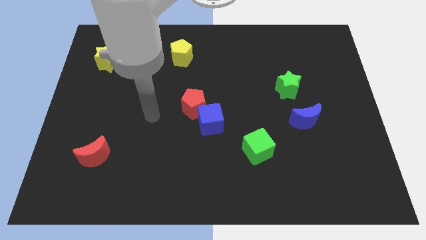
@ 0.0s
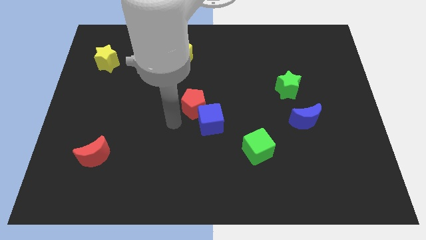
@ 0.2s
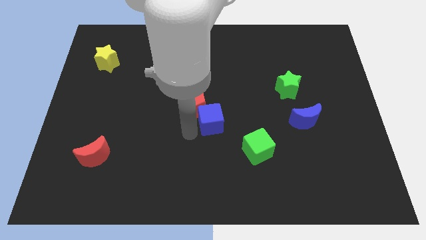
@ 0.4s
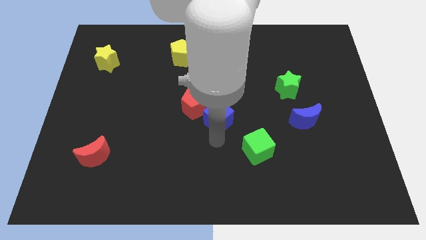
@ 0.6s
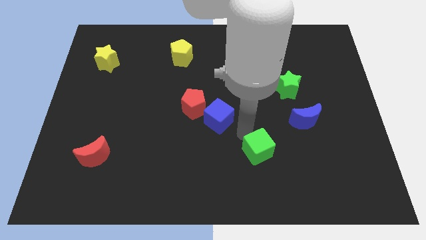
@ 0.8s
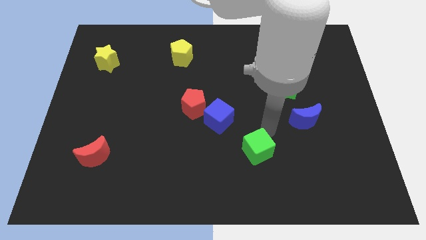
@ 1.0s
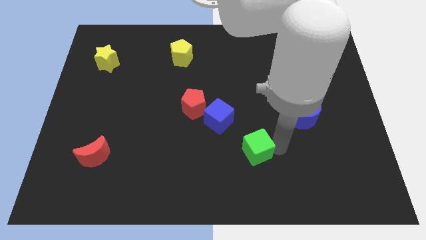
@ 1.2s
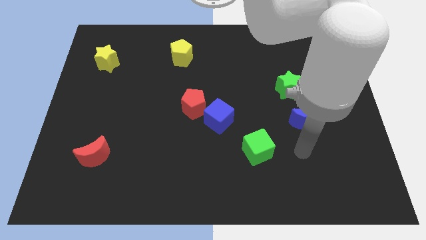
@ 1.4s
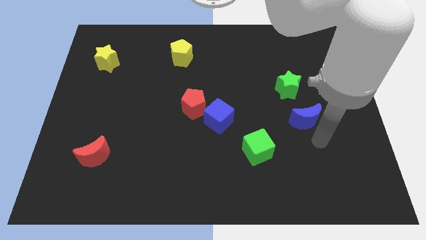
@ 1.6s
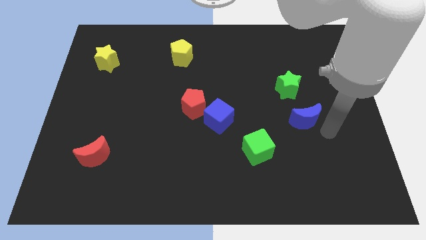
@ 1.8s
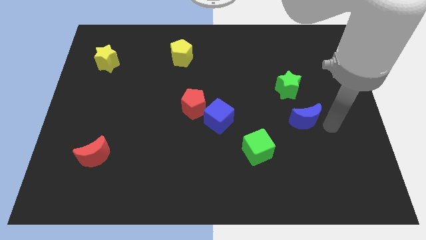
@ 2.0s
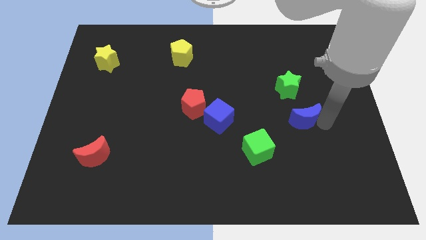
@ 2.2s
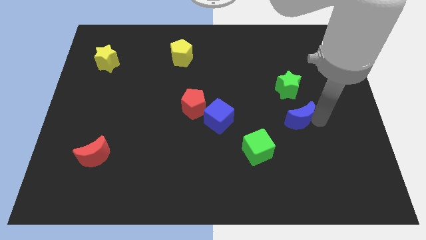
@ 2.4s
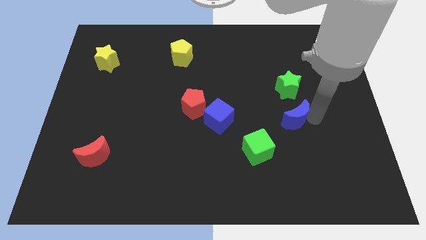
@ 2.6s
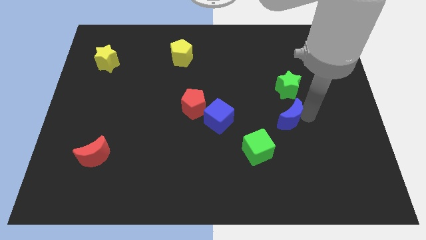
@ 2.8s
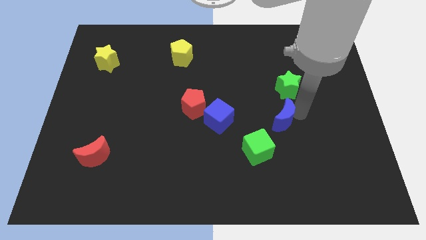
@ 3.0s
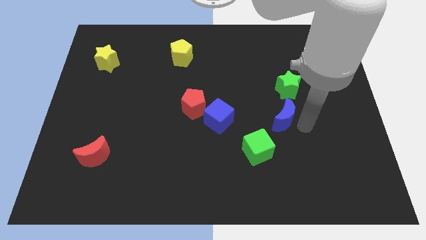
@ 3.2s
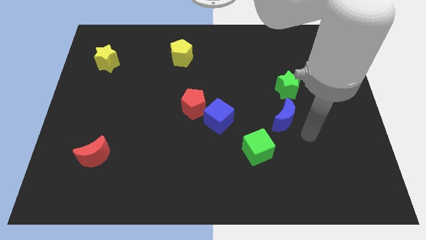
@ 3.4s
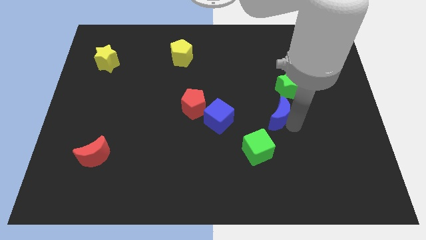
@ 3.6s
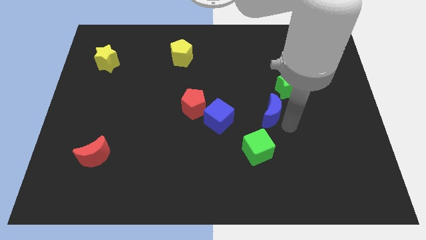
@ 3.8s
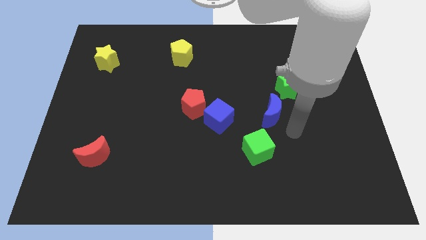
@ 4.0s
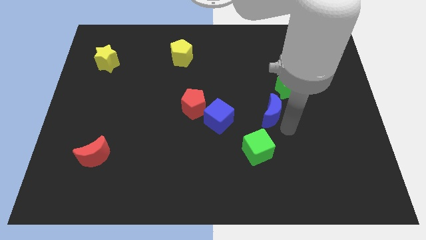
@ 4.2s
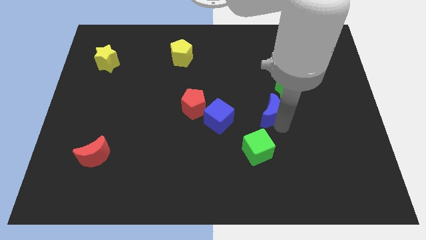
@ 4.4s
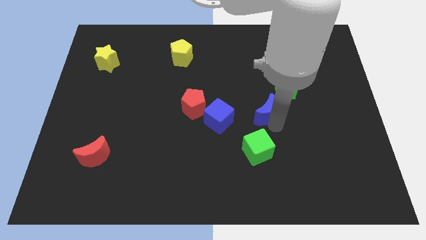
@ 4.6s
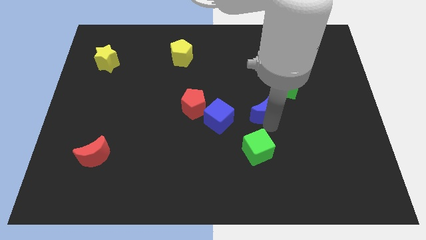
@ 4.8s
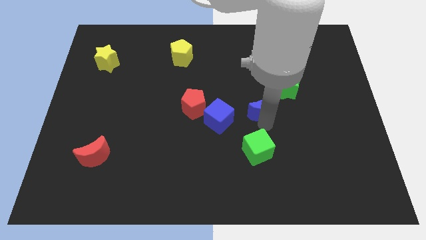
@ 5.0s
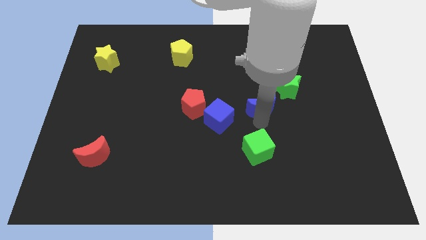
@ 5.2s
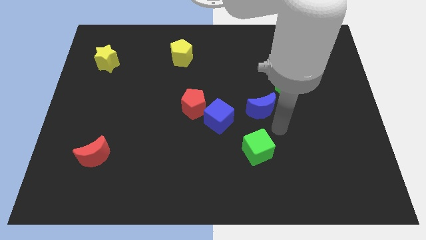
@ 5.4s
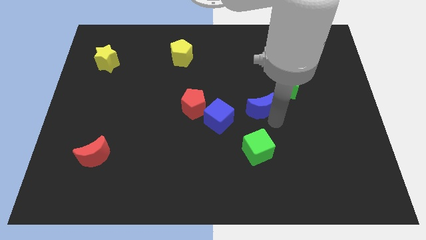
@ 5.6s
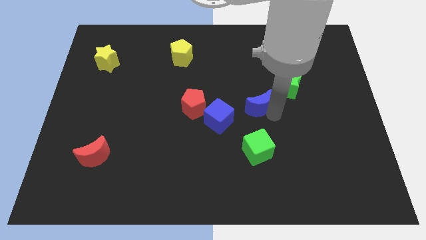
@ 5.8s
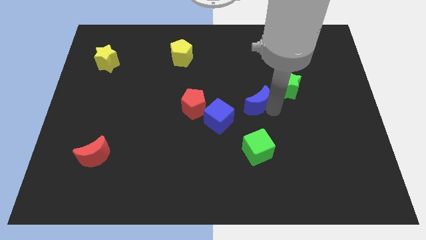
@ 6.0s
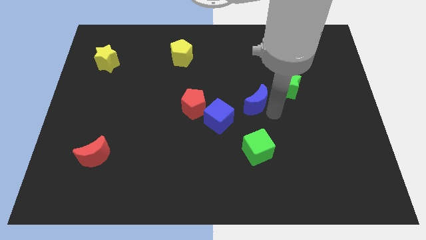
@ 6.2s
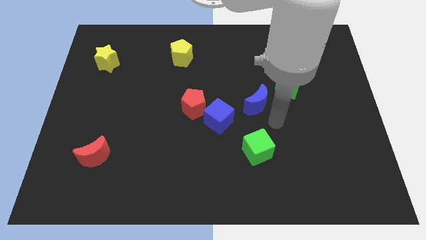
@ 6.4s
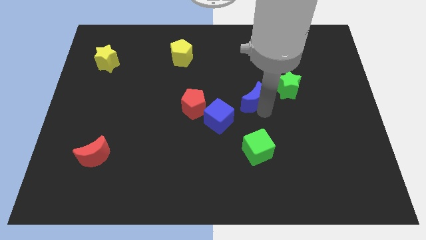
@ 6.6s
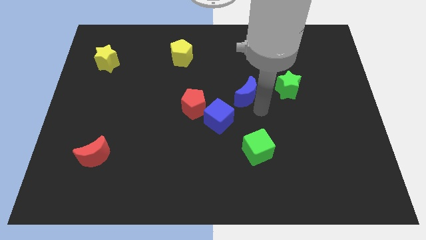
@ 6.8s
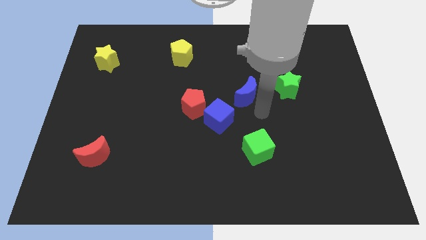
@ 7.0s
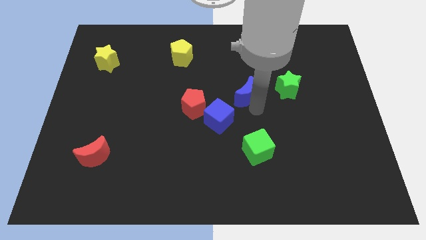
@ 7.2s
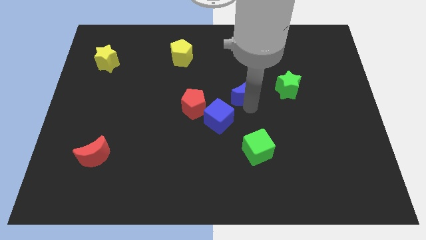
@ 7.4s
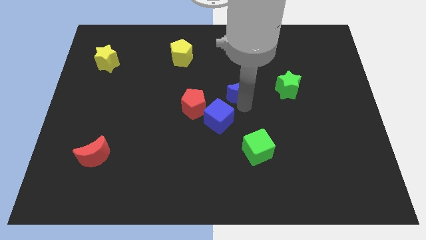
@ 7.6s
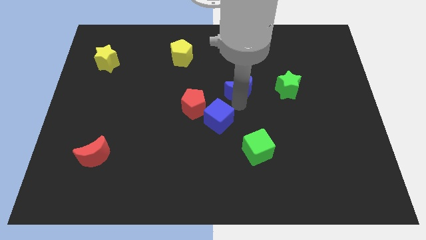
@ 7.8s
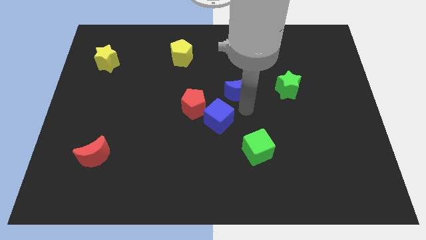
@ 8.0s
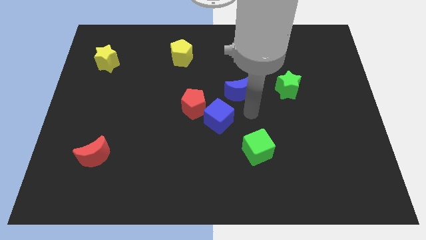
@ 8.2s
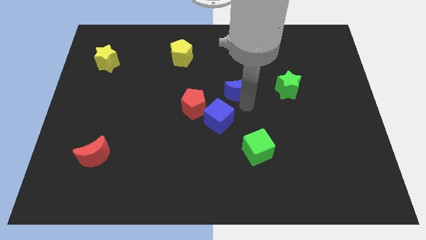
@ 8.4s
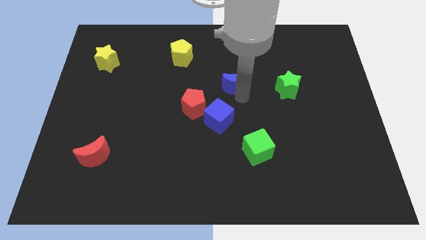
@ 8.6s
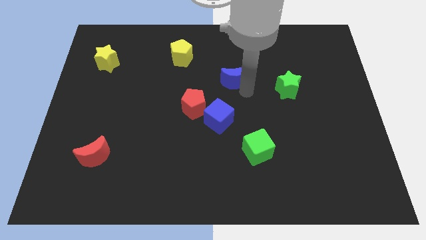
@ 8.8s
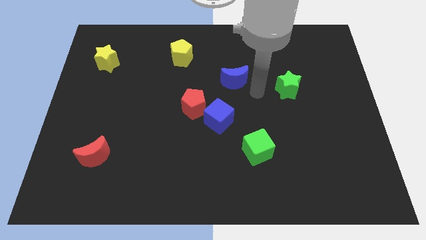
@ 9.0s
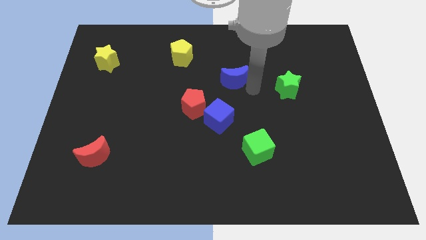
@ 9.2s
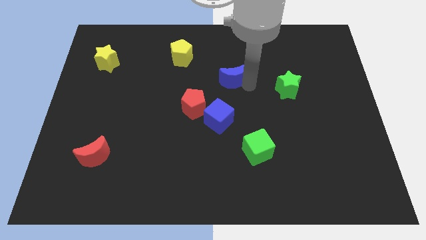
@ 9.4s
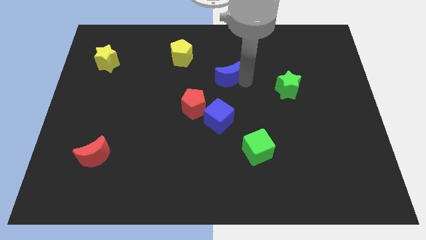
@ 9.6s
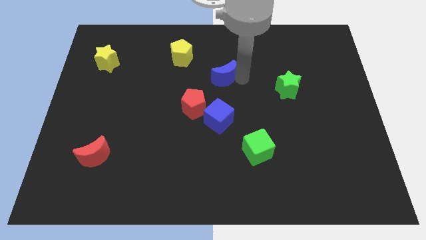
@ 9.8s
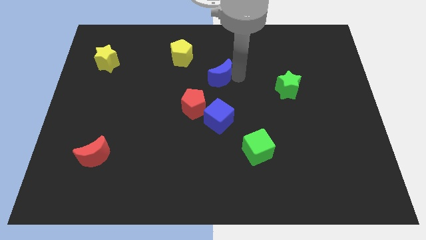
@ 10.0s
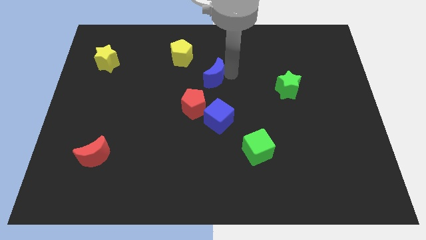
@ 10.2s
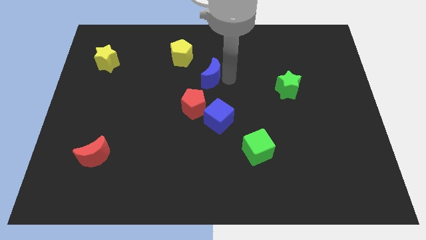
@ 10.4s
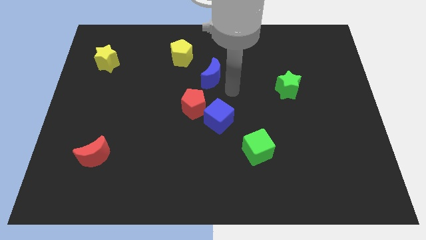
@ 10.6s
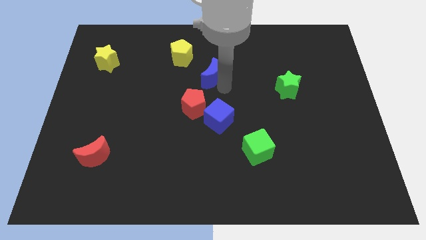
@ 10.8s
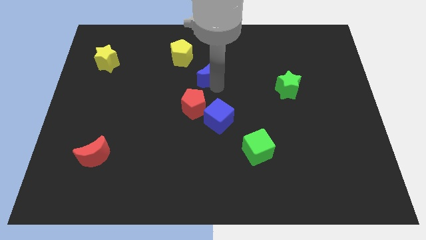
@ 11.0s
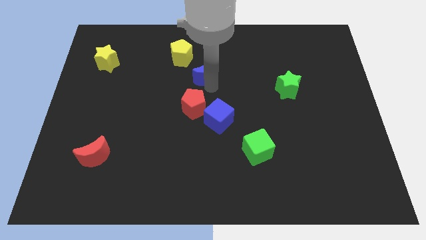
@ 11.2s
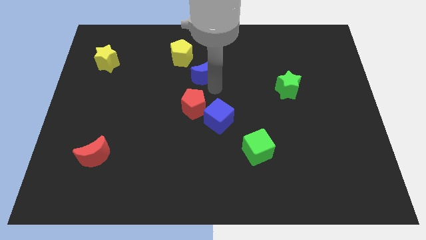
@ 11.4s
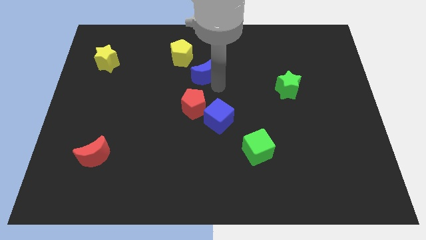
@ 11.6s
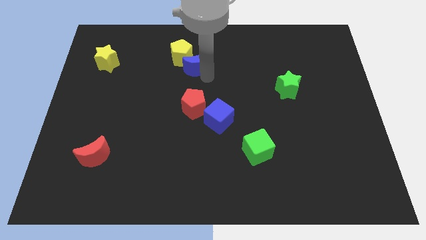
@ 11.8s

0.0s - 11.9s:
move the blue moon next to the yellow pentagon

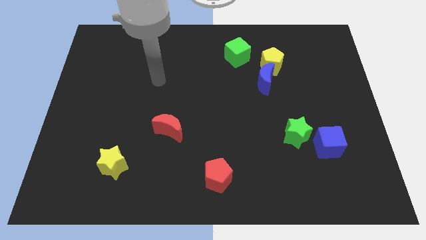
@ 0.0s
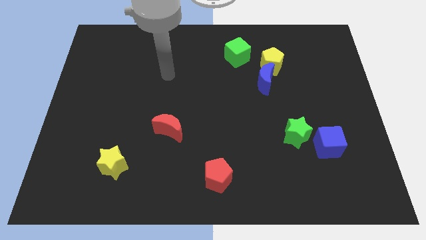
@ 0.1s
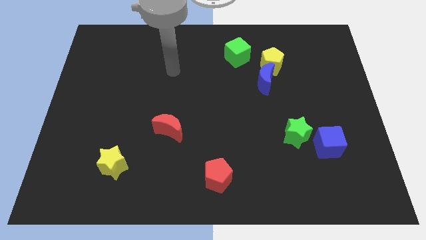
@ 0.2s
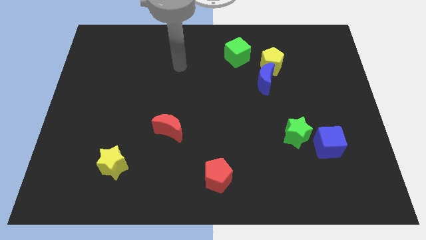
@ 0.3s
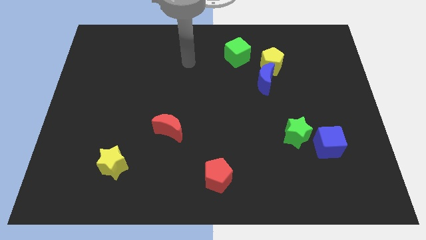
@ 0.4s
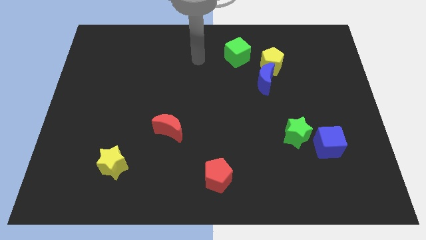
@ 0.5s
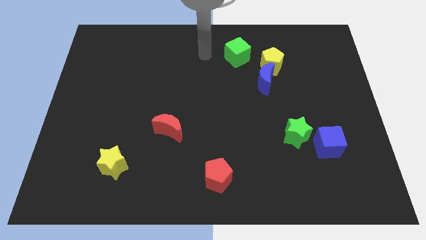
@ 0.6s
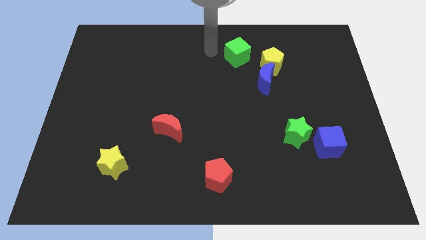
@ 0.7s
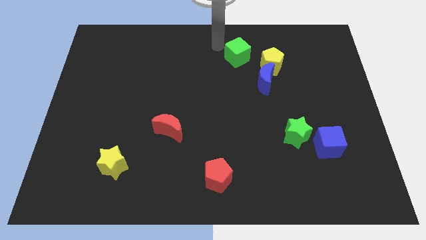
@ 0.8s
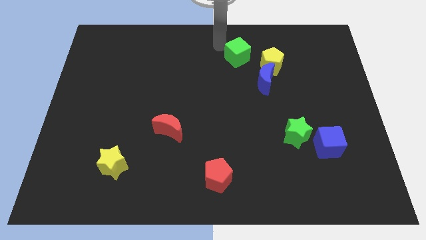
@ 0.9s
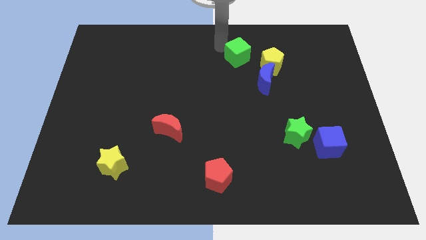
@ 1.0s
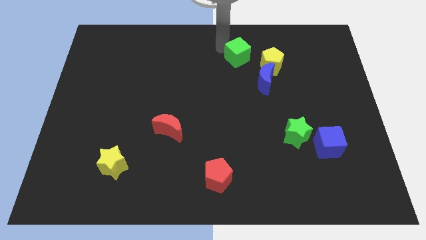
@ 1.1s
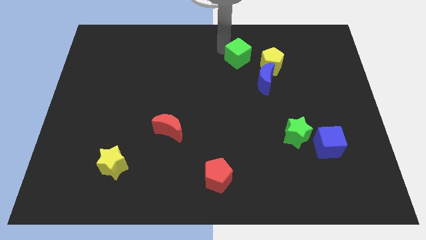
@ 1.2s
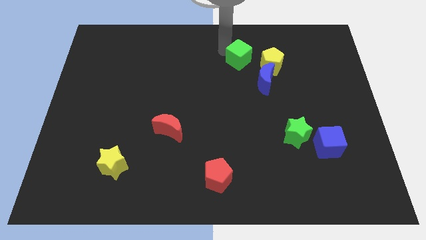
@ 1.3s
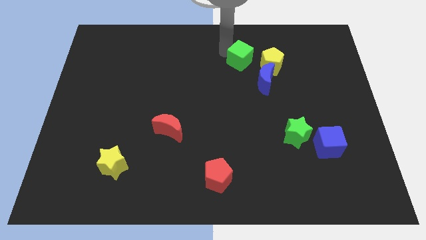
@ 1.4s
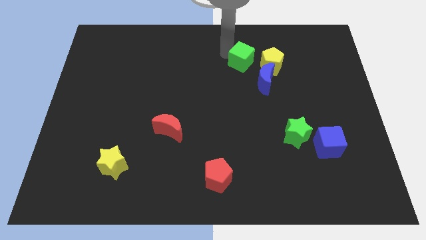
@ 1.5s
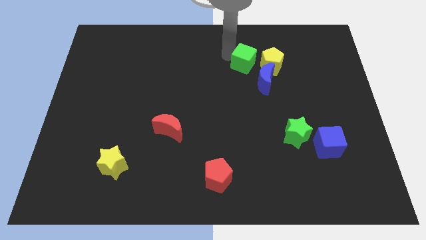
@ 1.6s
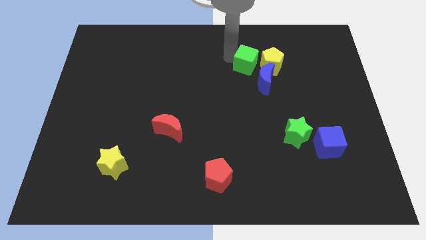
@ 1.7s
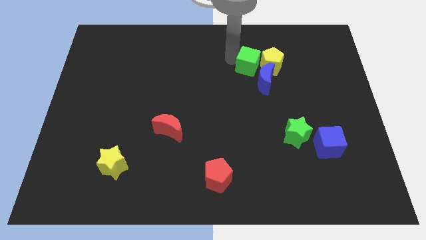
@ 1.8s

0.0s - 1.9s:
push the green cube next to the yellow pentagon
